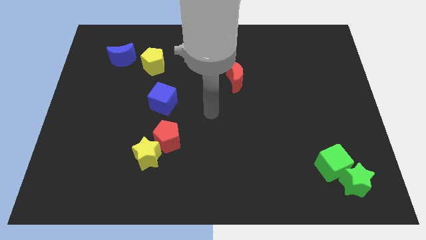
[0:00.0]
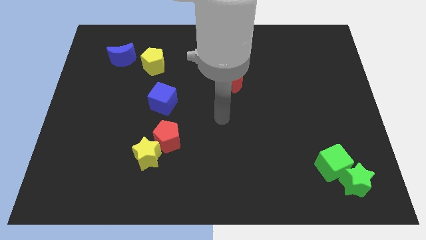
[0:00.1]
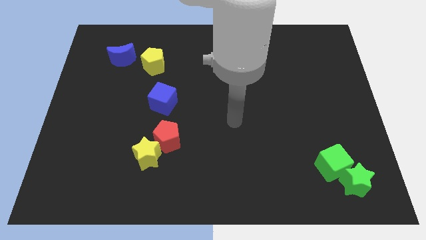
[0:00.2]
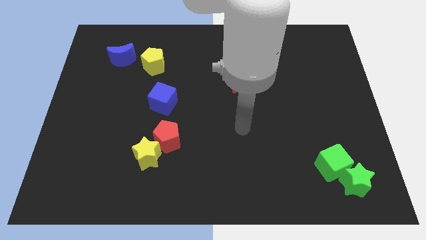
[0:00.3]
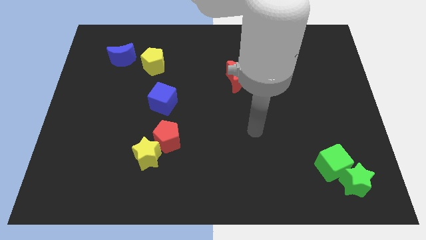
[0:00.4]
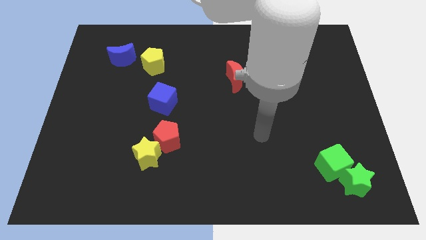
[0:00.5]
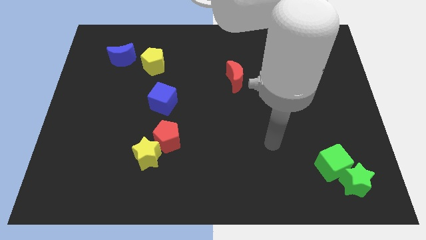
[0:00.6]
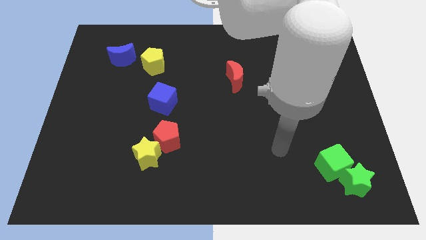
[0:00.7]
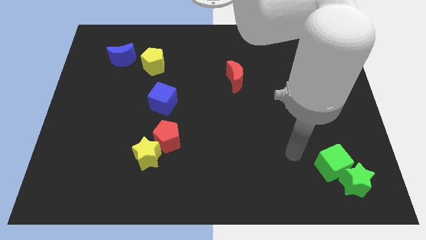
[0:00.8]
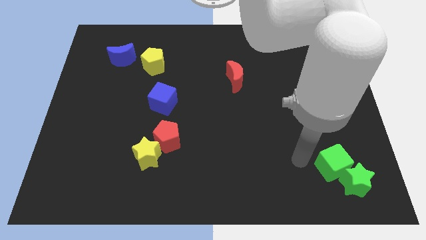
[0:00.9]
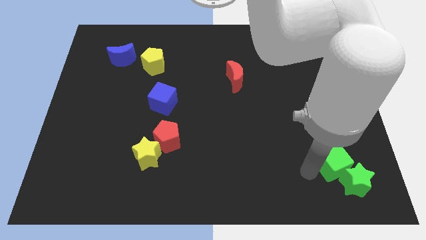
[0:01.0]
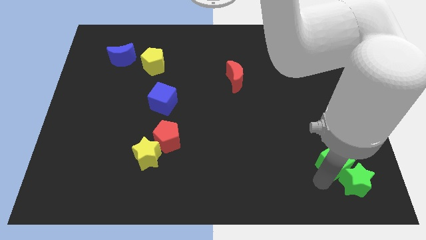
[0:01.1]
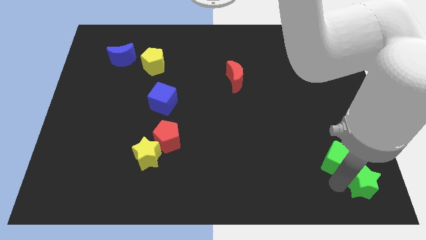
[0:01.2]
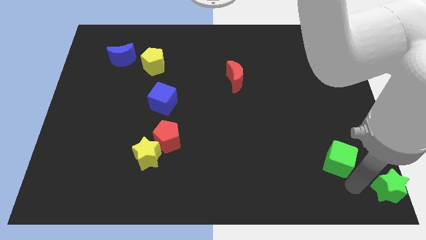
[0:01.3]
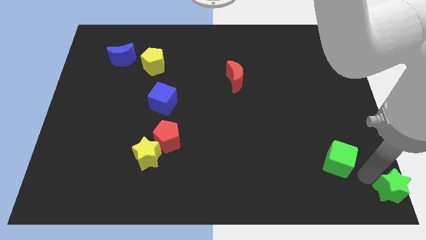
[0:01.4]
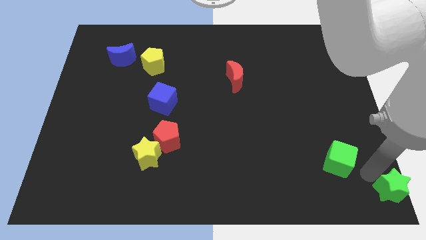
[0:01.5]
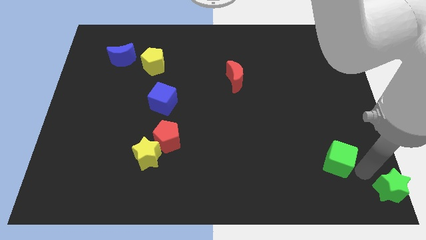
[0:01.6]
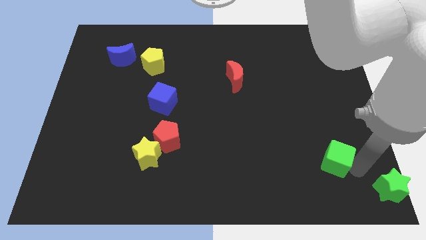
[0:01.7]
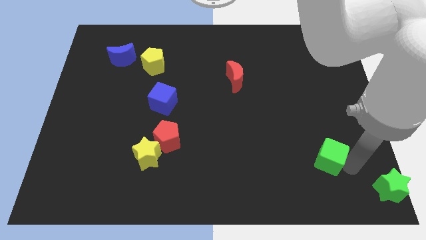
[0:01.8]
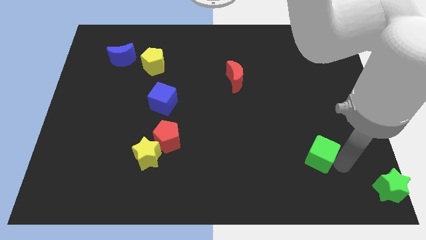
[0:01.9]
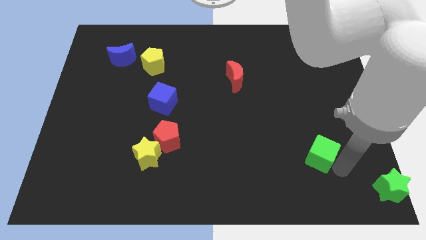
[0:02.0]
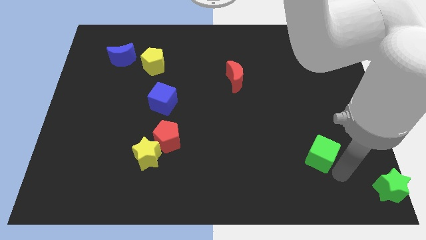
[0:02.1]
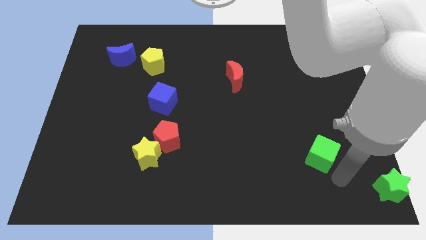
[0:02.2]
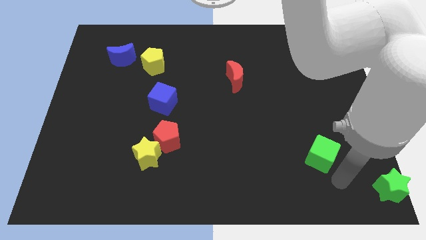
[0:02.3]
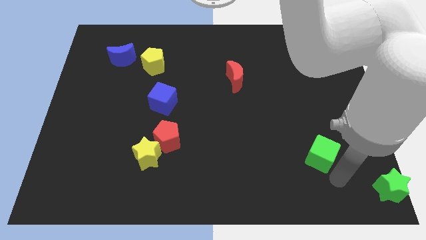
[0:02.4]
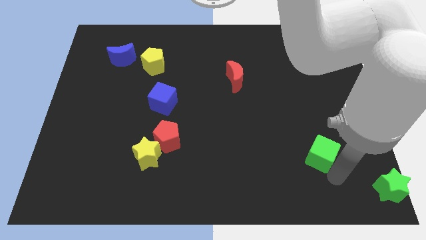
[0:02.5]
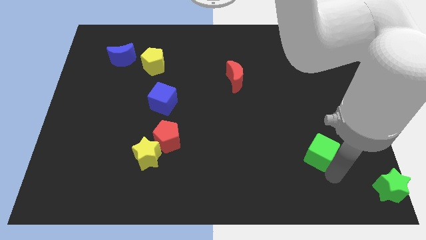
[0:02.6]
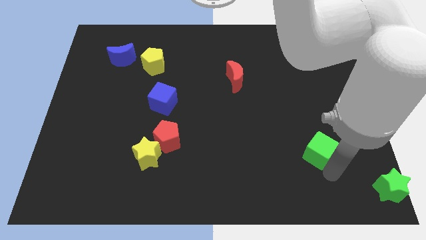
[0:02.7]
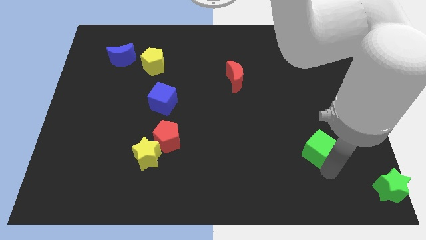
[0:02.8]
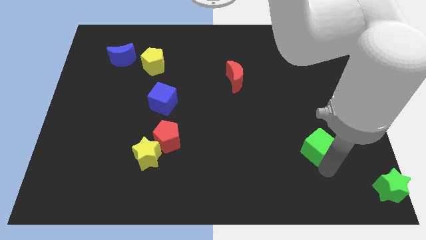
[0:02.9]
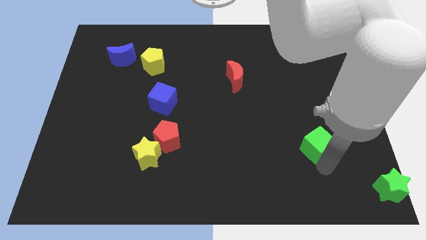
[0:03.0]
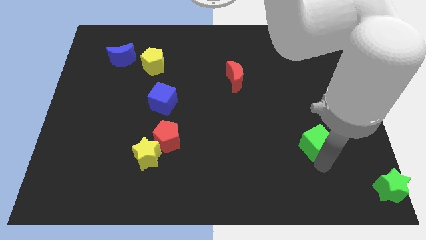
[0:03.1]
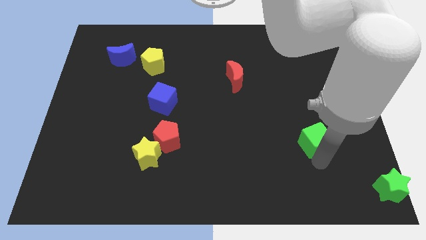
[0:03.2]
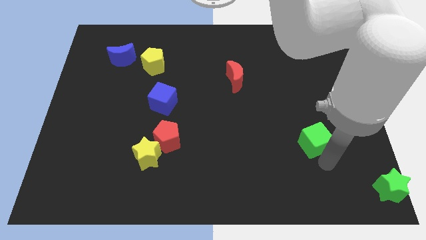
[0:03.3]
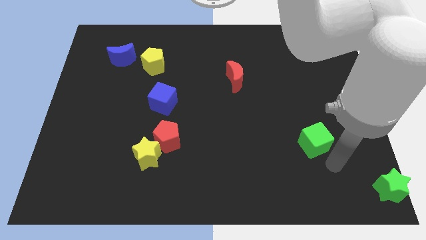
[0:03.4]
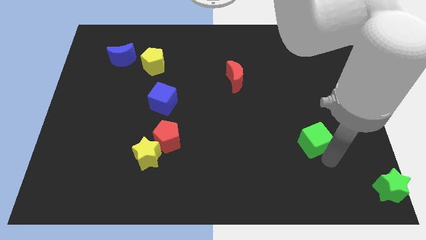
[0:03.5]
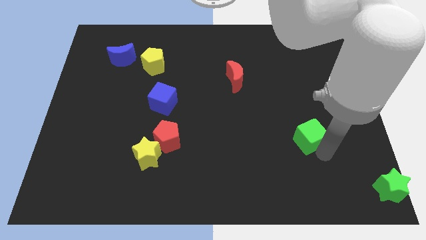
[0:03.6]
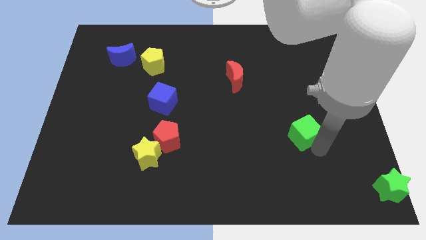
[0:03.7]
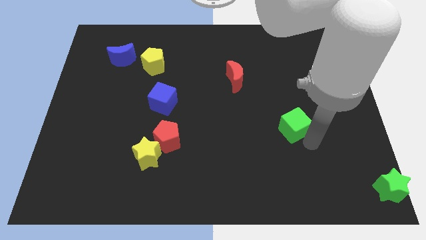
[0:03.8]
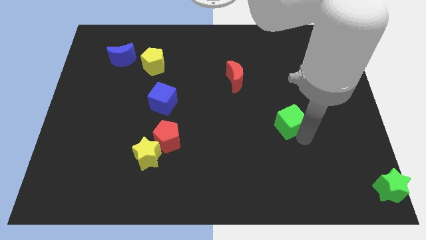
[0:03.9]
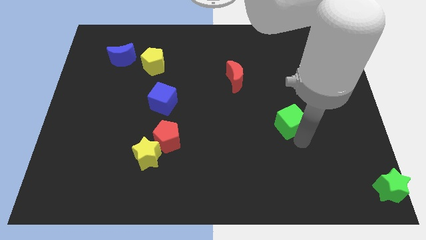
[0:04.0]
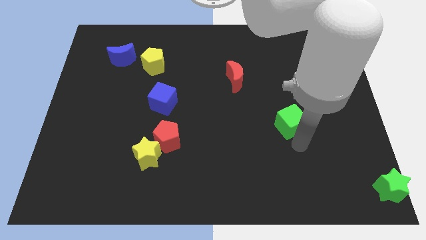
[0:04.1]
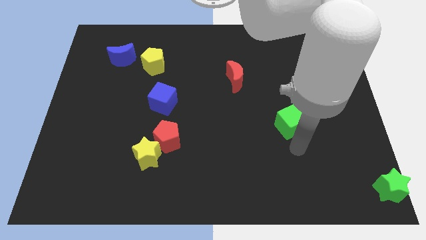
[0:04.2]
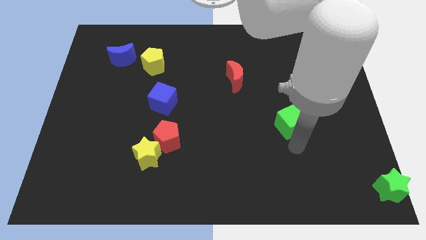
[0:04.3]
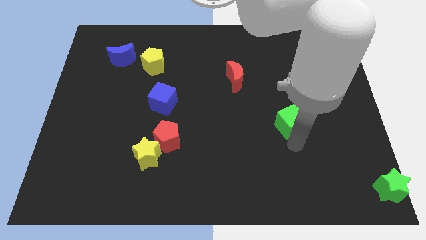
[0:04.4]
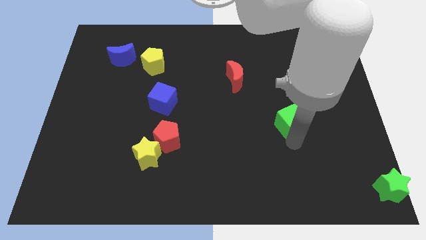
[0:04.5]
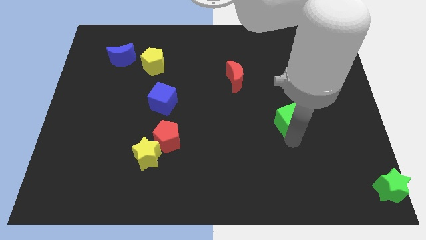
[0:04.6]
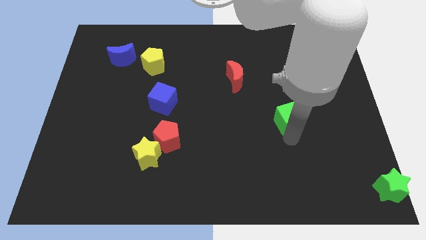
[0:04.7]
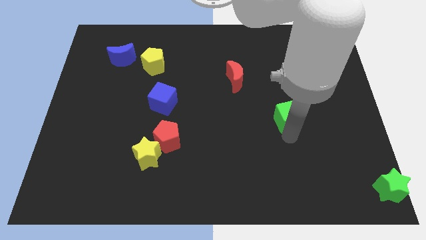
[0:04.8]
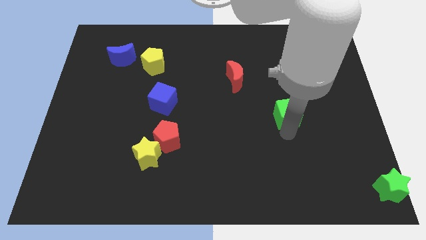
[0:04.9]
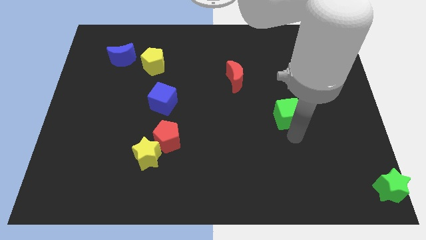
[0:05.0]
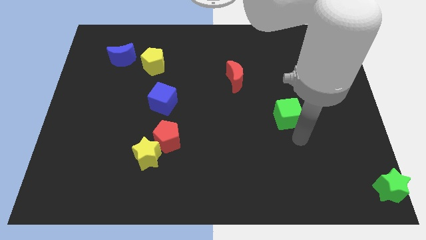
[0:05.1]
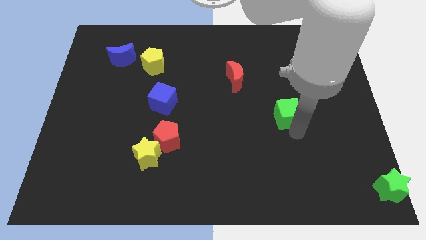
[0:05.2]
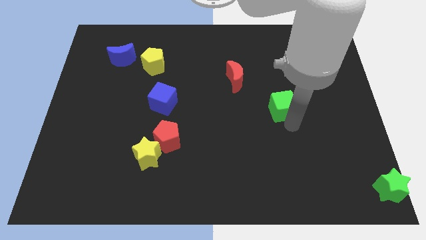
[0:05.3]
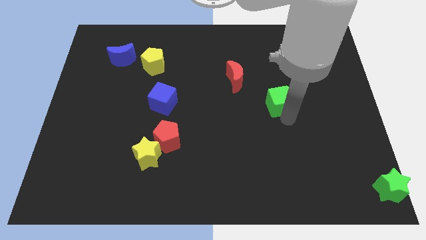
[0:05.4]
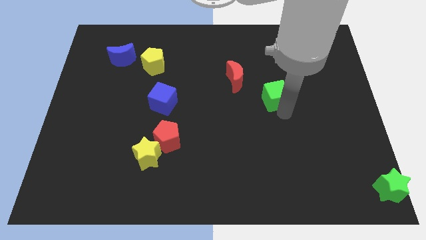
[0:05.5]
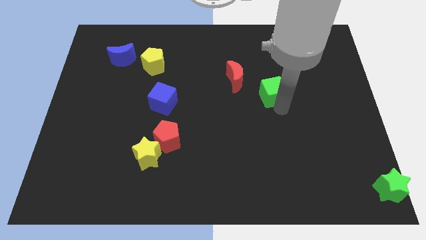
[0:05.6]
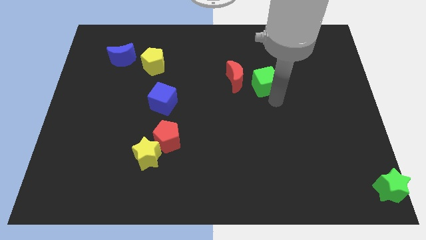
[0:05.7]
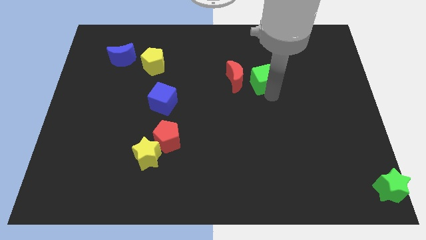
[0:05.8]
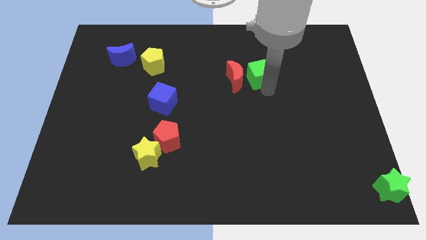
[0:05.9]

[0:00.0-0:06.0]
move the green cube to the top right side of the red moon

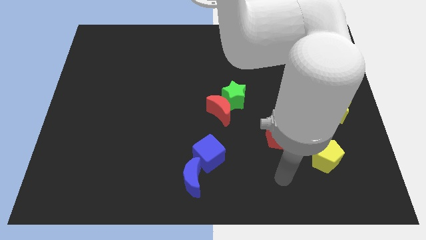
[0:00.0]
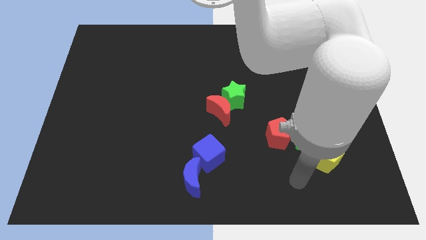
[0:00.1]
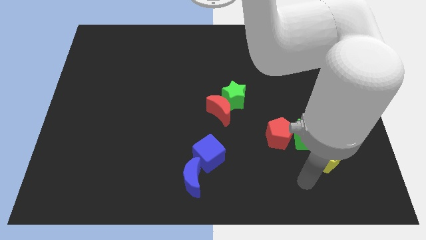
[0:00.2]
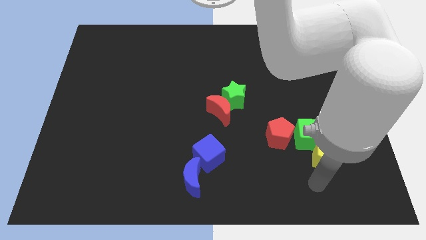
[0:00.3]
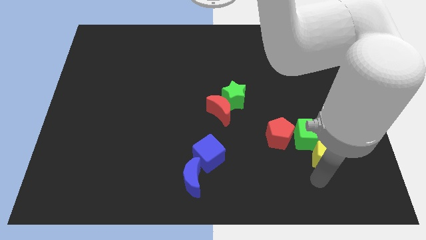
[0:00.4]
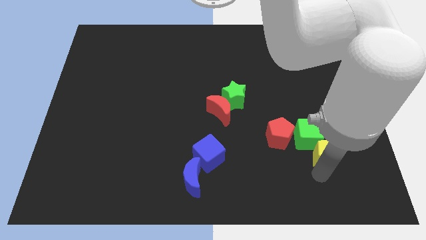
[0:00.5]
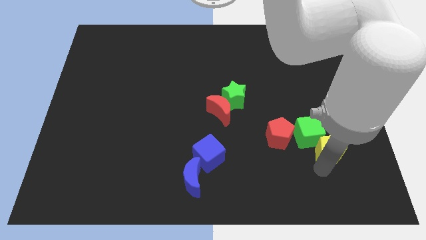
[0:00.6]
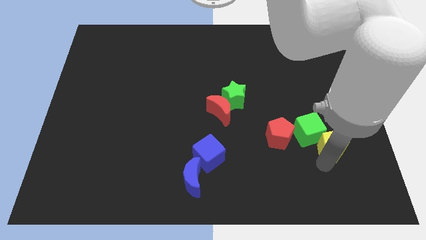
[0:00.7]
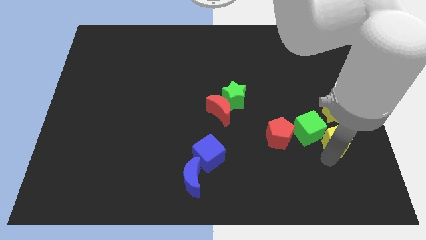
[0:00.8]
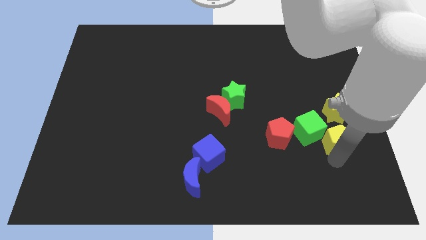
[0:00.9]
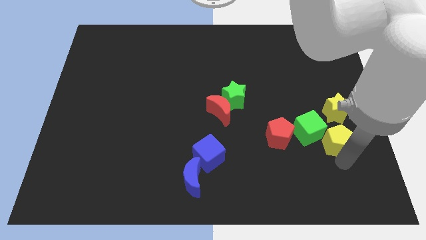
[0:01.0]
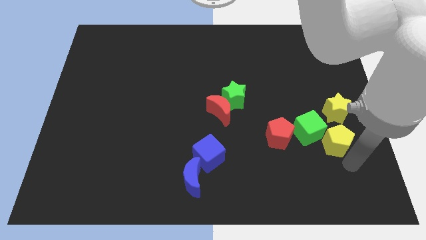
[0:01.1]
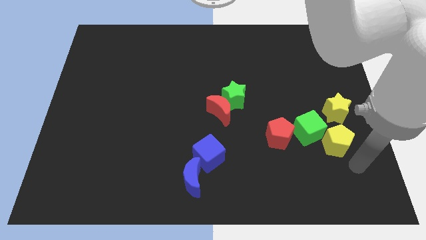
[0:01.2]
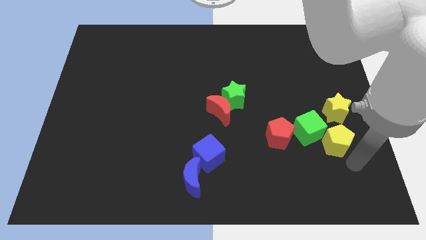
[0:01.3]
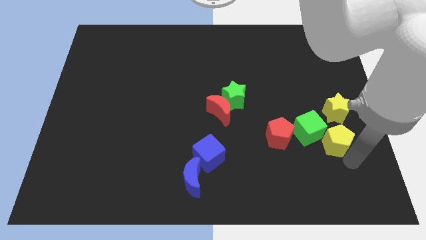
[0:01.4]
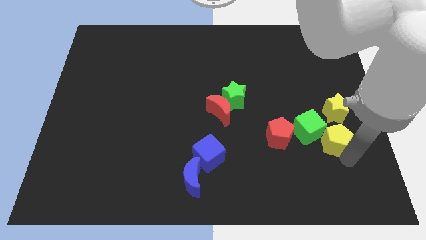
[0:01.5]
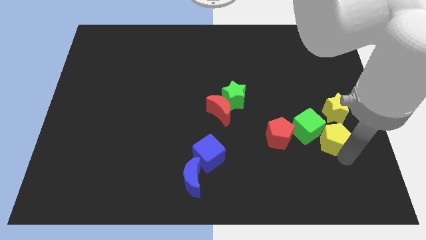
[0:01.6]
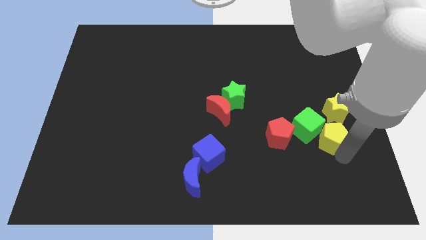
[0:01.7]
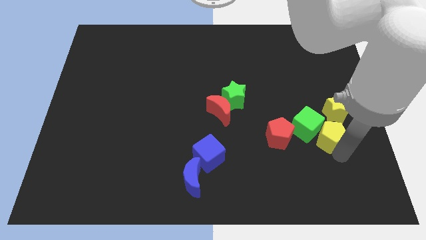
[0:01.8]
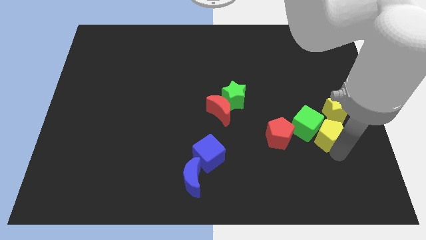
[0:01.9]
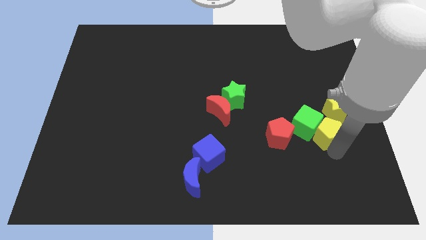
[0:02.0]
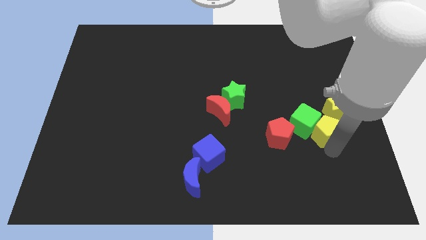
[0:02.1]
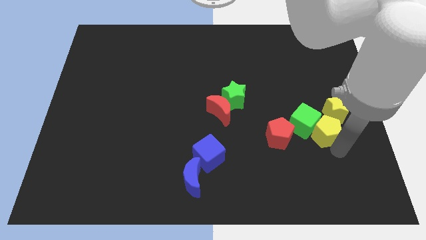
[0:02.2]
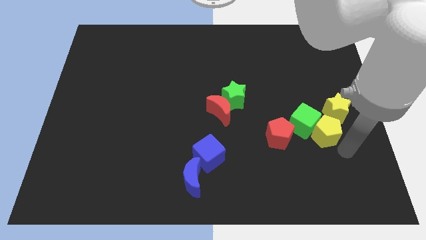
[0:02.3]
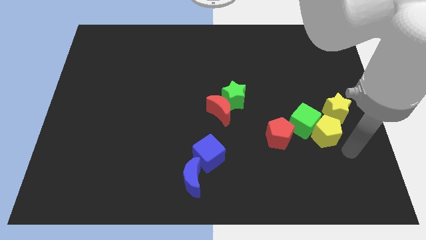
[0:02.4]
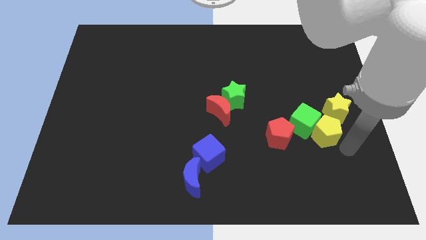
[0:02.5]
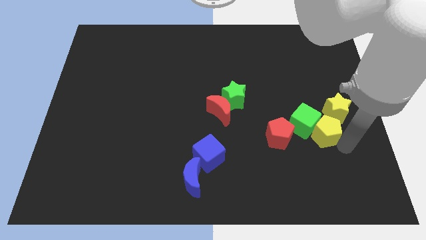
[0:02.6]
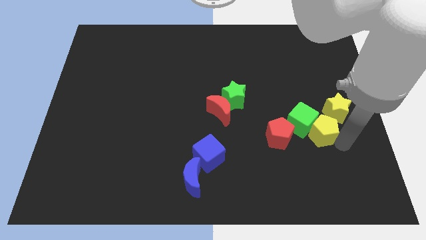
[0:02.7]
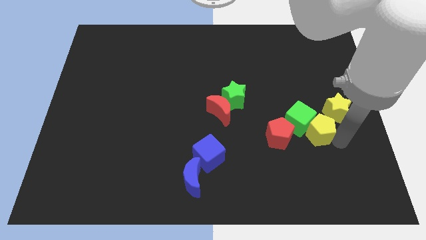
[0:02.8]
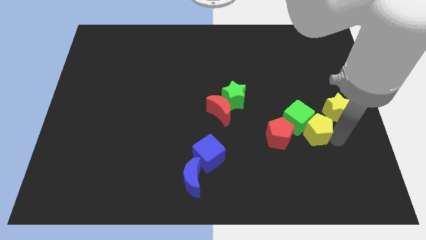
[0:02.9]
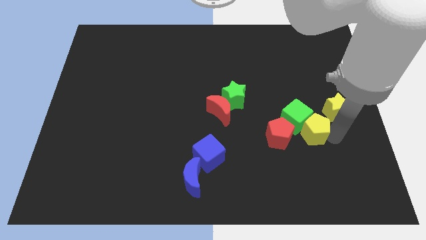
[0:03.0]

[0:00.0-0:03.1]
push the yellow pentagon diagonally up and to the right of the red pentagon
